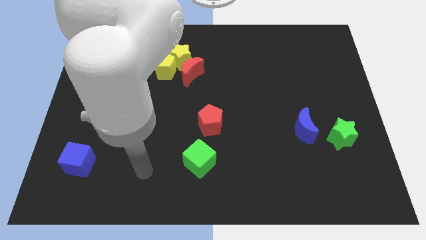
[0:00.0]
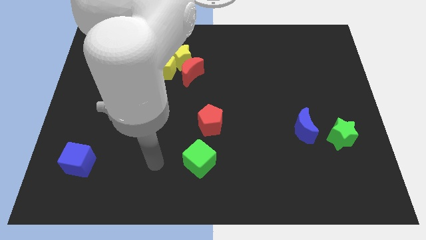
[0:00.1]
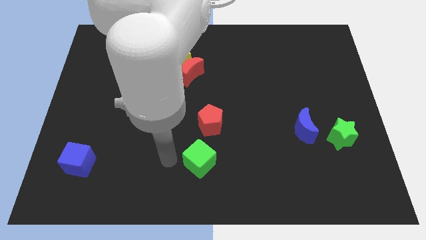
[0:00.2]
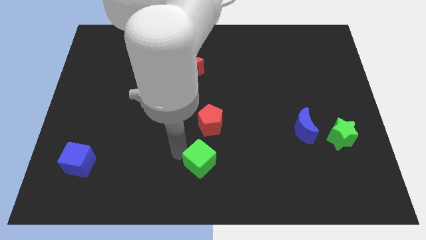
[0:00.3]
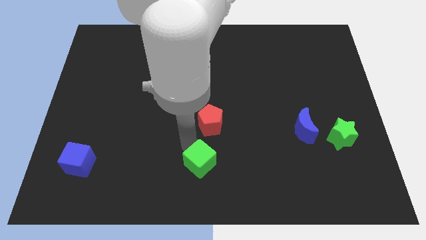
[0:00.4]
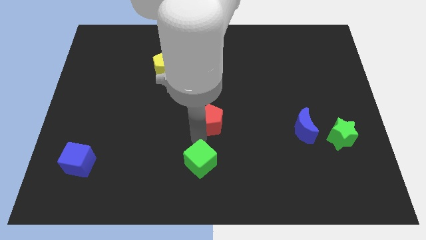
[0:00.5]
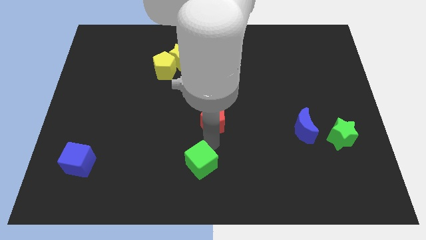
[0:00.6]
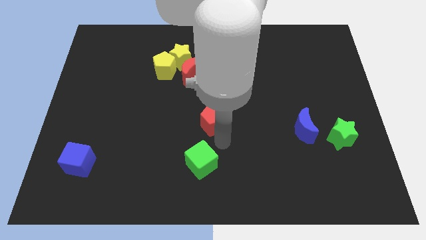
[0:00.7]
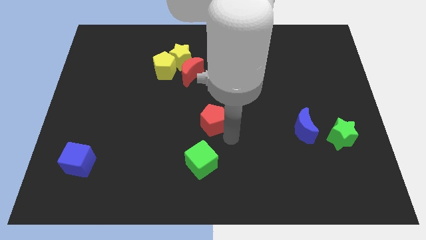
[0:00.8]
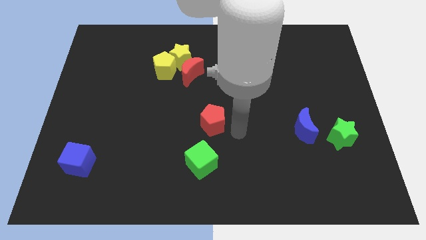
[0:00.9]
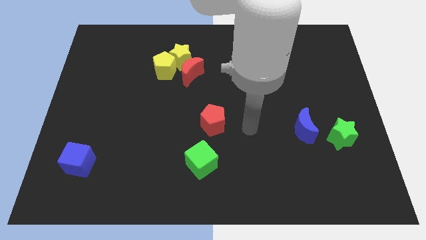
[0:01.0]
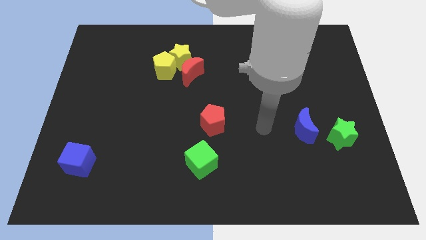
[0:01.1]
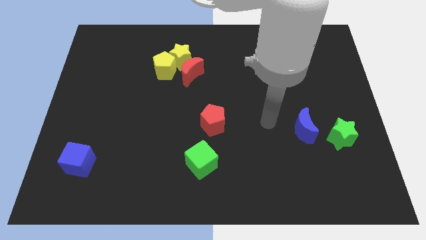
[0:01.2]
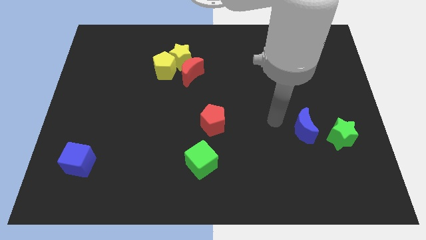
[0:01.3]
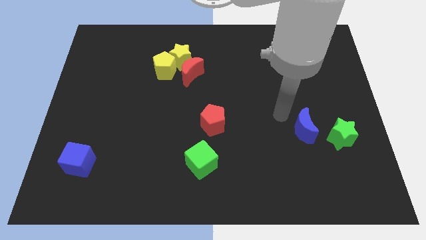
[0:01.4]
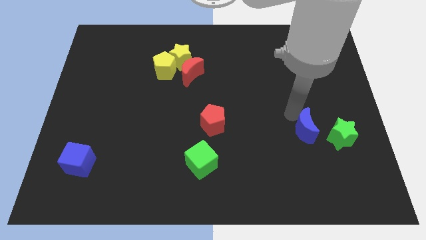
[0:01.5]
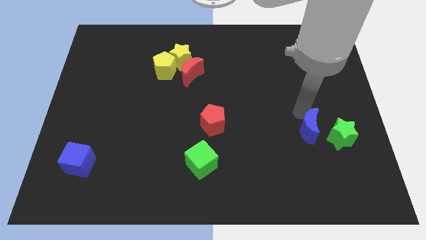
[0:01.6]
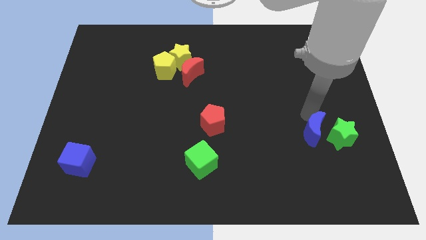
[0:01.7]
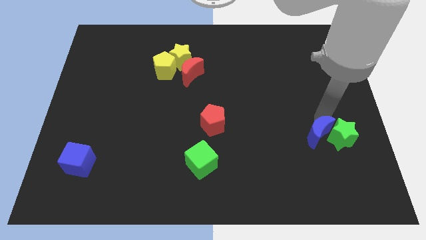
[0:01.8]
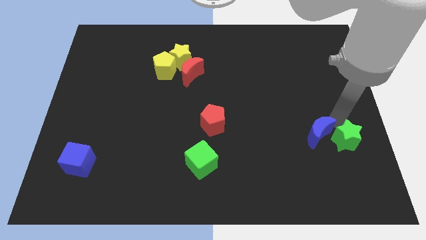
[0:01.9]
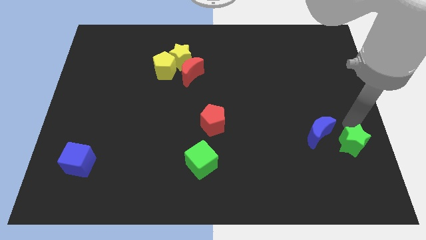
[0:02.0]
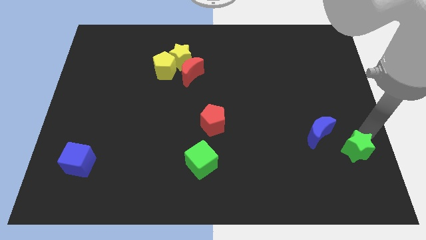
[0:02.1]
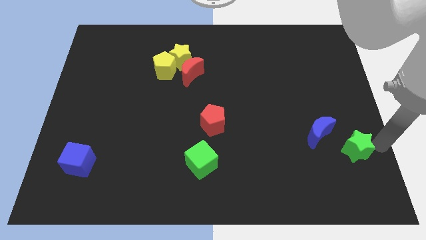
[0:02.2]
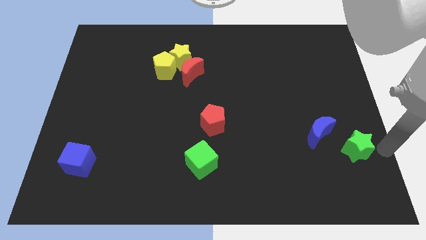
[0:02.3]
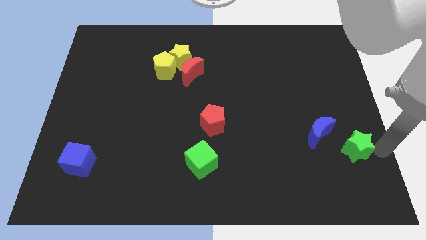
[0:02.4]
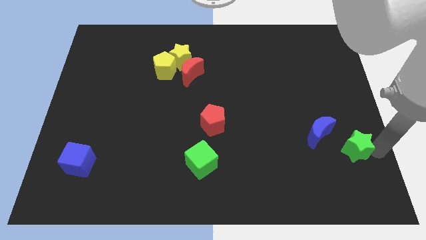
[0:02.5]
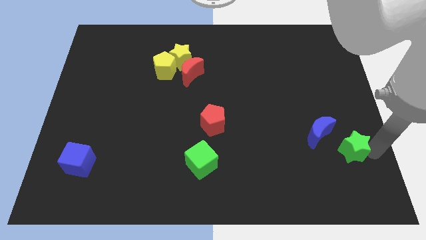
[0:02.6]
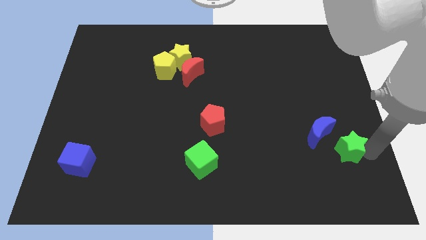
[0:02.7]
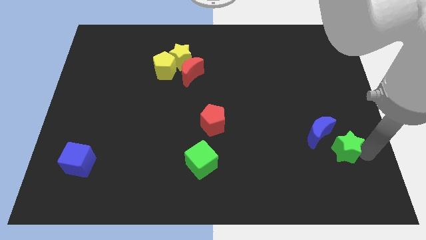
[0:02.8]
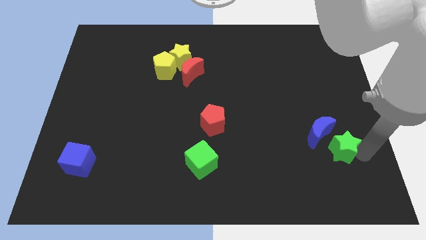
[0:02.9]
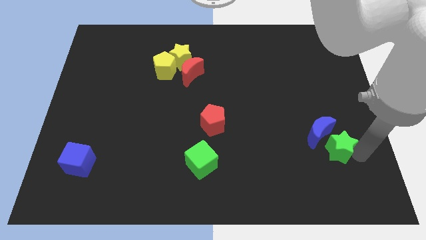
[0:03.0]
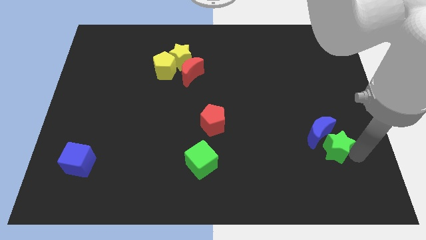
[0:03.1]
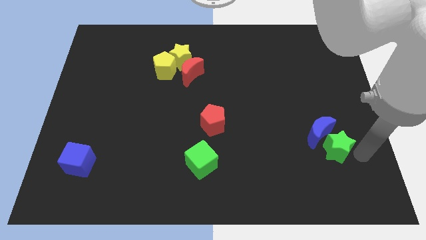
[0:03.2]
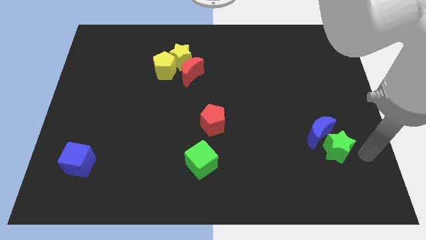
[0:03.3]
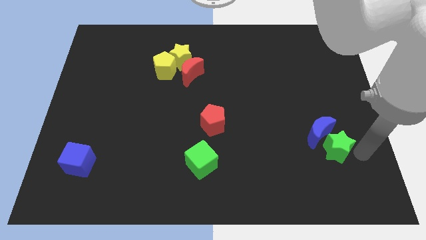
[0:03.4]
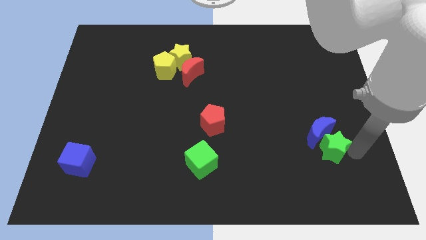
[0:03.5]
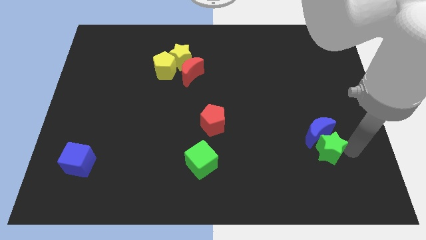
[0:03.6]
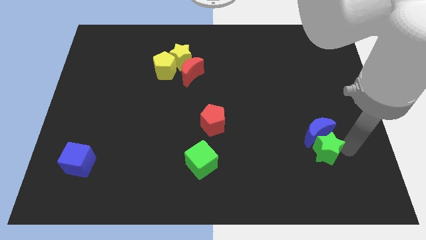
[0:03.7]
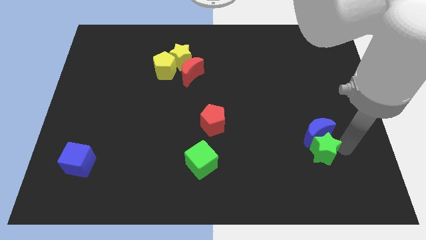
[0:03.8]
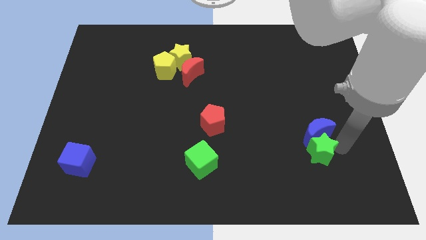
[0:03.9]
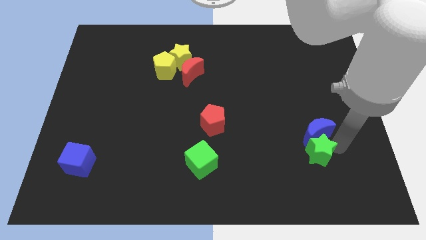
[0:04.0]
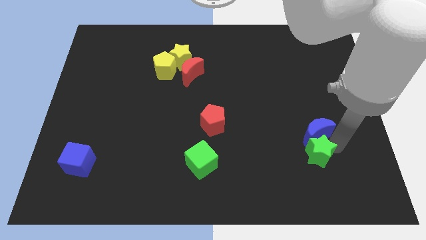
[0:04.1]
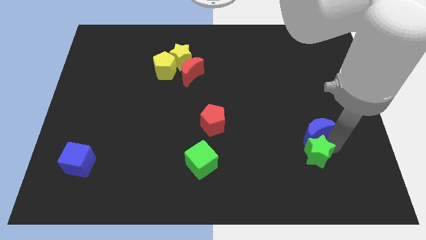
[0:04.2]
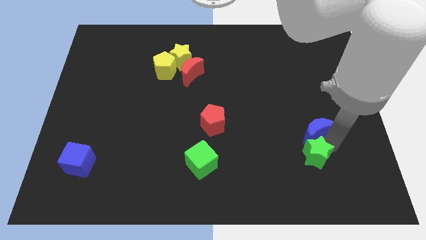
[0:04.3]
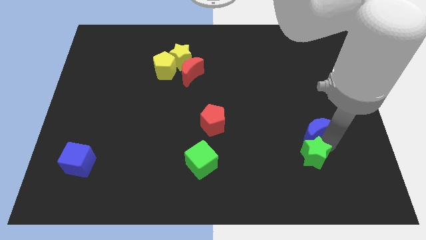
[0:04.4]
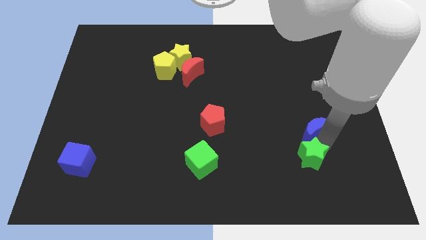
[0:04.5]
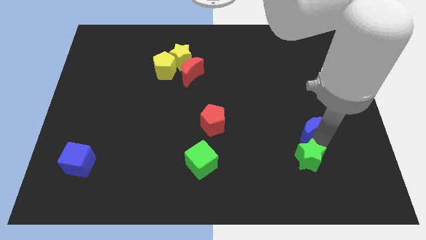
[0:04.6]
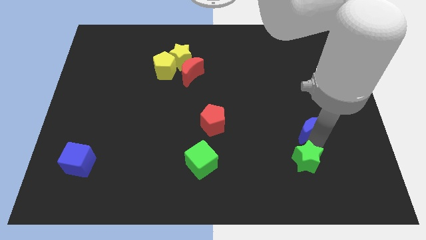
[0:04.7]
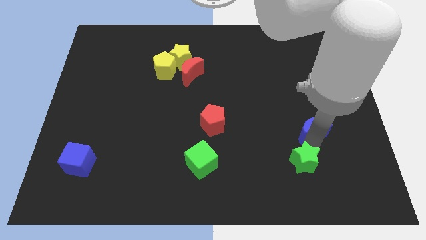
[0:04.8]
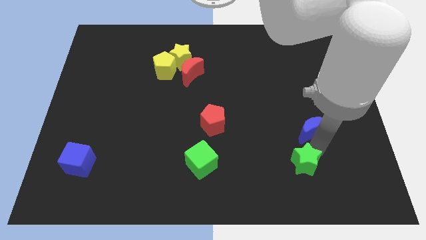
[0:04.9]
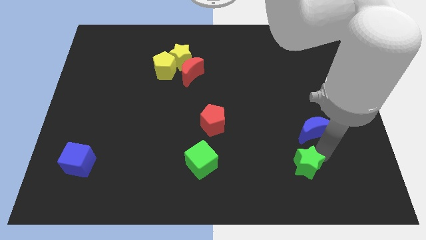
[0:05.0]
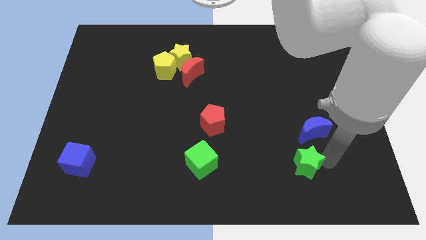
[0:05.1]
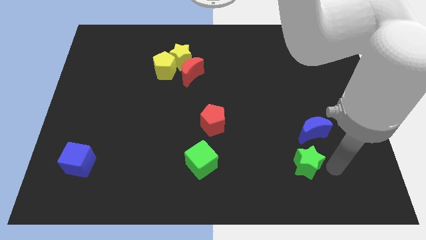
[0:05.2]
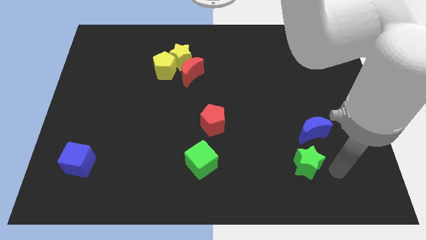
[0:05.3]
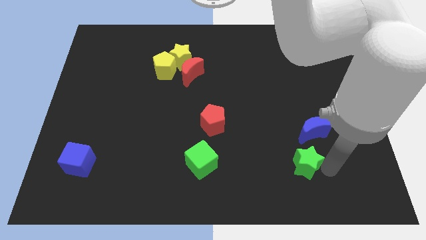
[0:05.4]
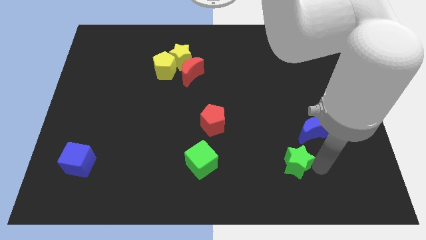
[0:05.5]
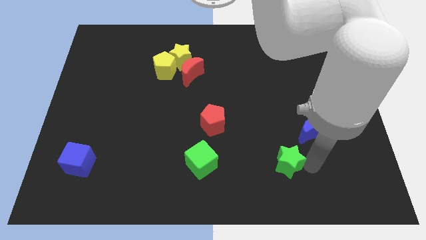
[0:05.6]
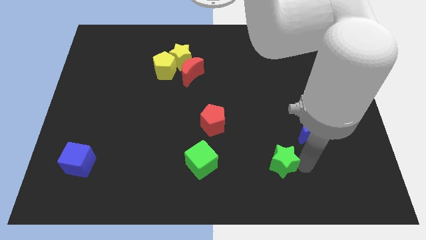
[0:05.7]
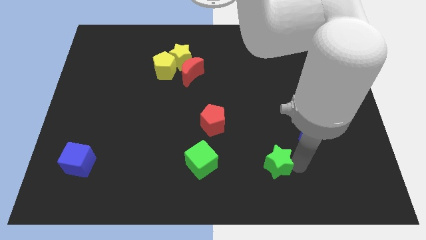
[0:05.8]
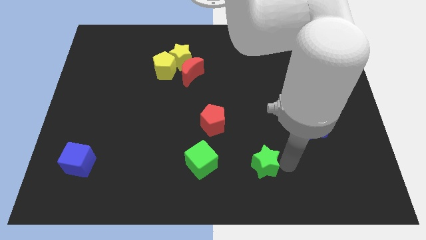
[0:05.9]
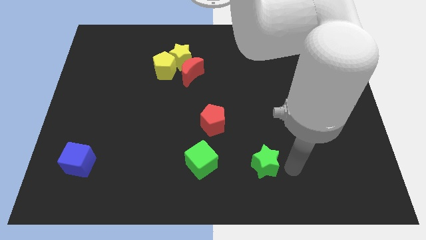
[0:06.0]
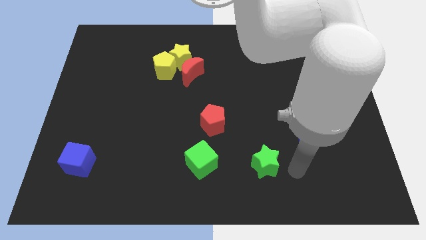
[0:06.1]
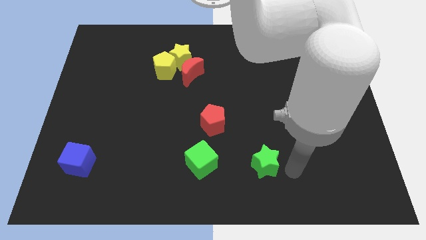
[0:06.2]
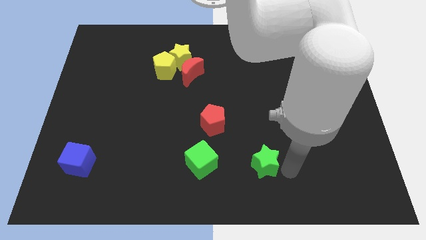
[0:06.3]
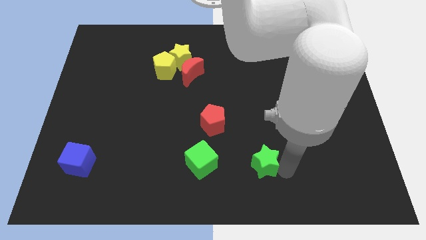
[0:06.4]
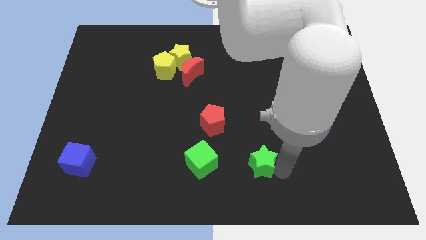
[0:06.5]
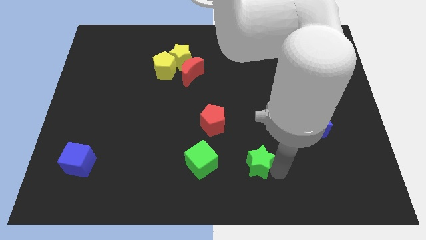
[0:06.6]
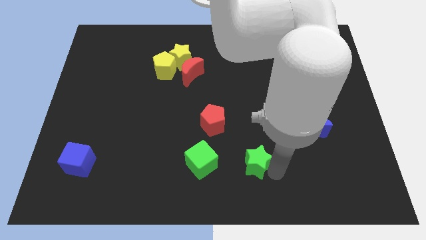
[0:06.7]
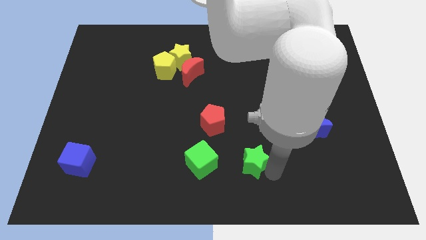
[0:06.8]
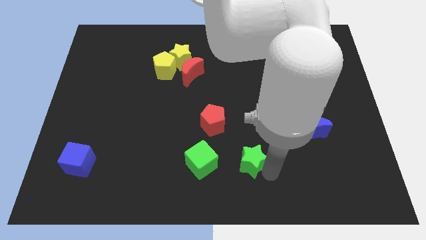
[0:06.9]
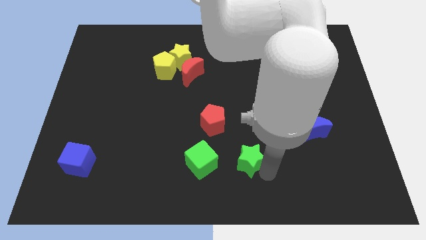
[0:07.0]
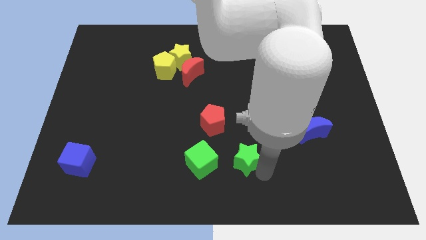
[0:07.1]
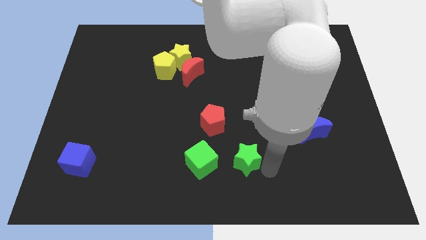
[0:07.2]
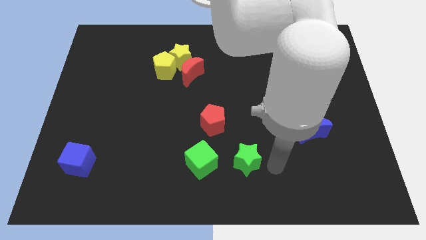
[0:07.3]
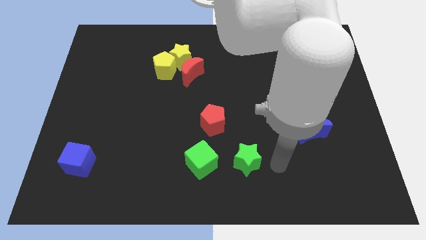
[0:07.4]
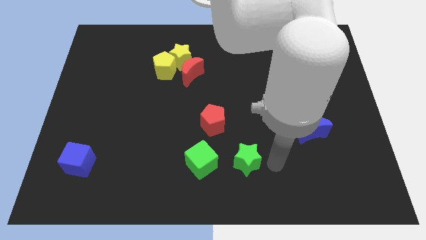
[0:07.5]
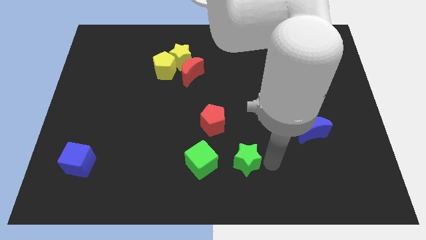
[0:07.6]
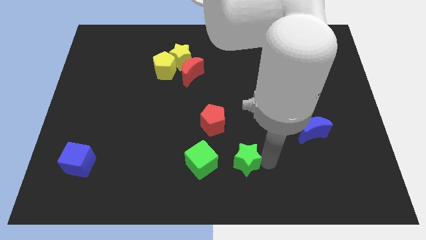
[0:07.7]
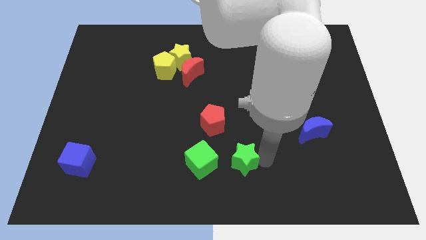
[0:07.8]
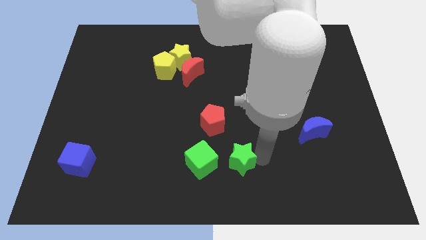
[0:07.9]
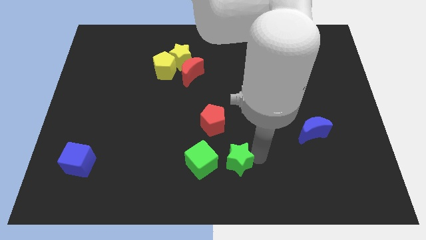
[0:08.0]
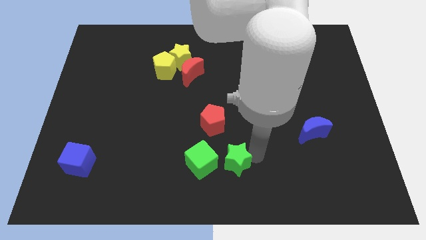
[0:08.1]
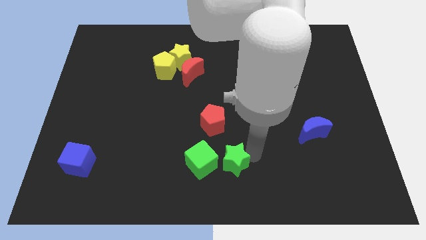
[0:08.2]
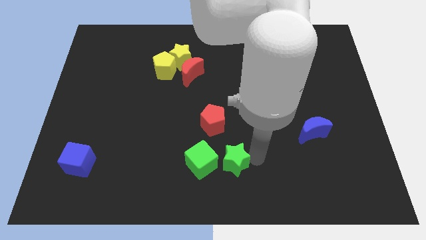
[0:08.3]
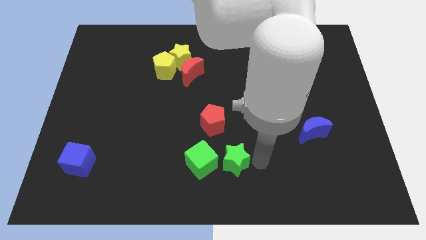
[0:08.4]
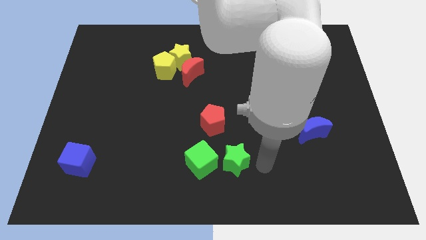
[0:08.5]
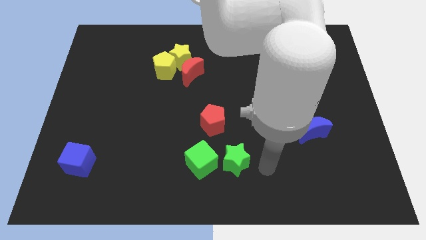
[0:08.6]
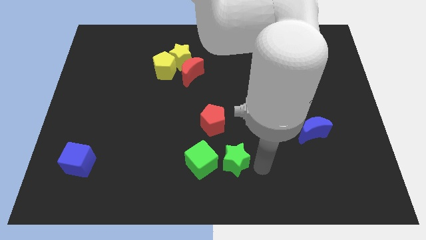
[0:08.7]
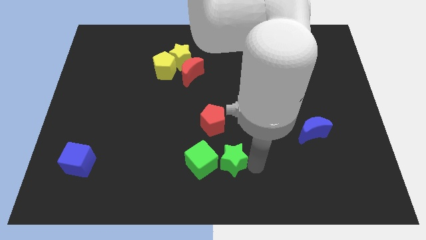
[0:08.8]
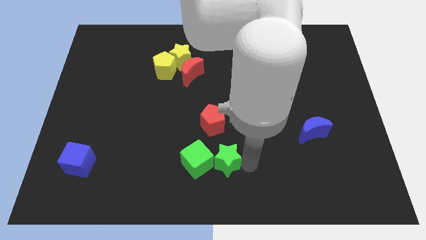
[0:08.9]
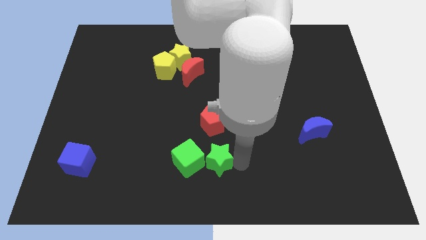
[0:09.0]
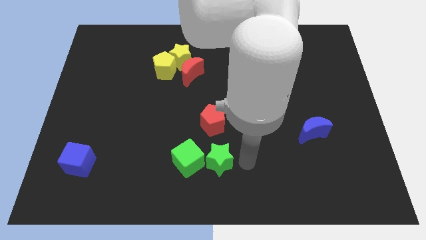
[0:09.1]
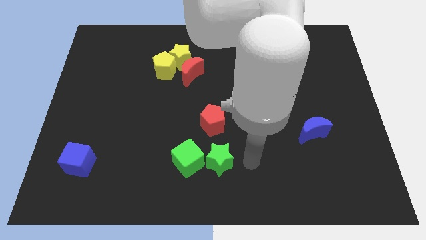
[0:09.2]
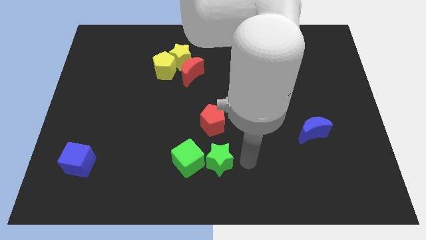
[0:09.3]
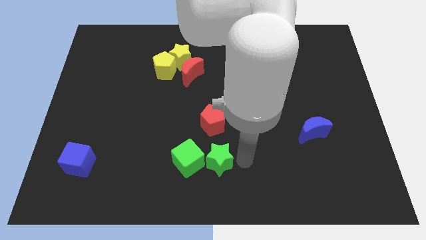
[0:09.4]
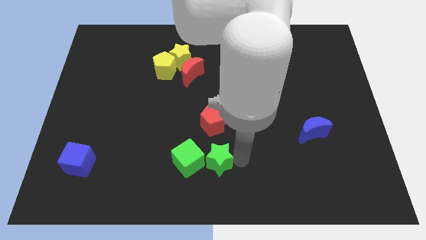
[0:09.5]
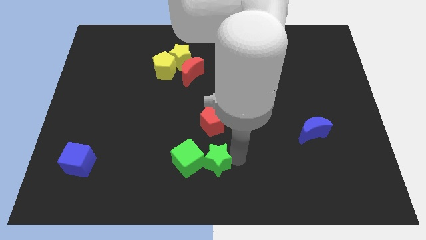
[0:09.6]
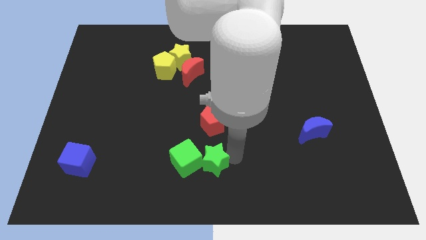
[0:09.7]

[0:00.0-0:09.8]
put the green star close to the green cube
